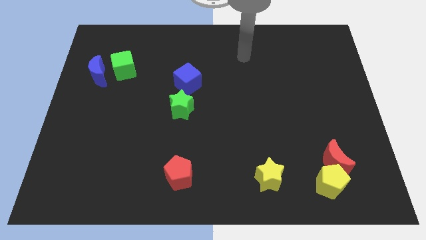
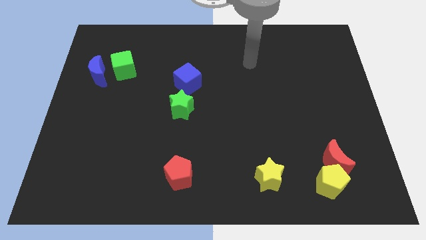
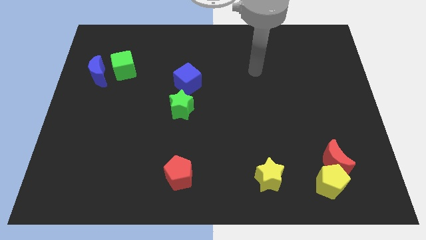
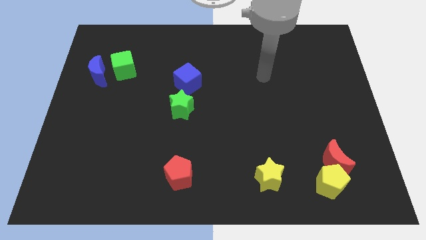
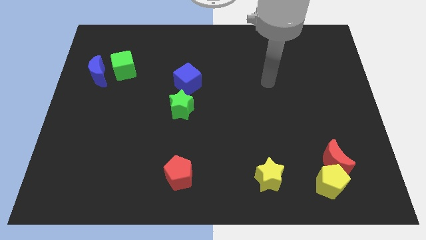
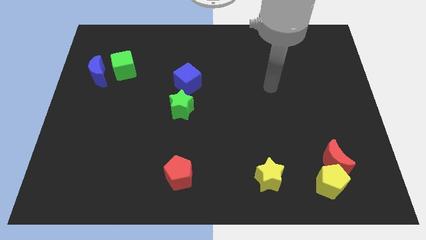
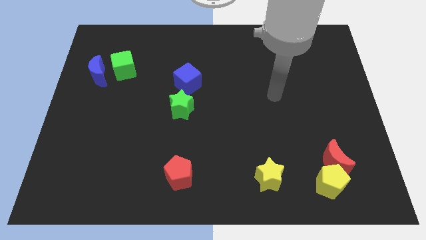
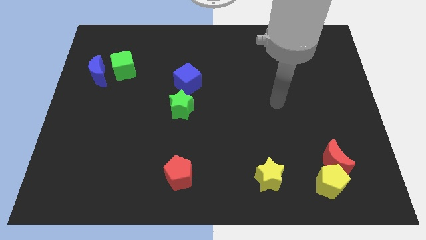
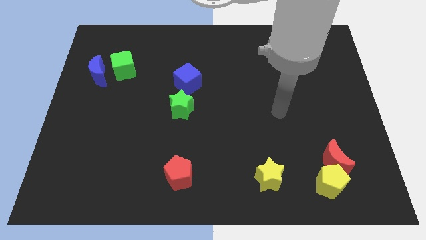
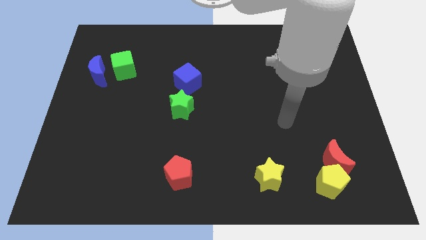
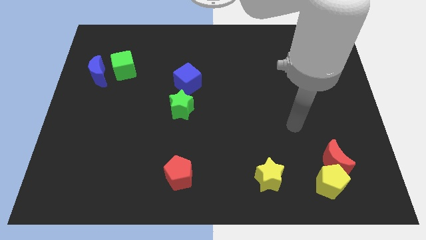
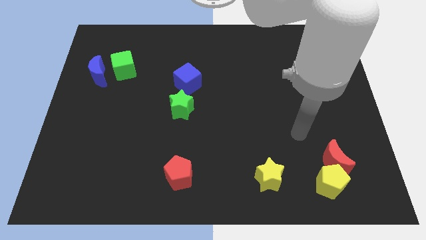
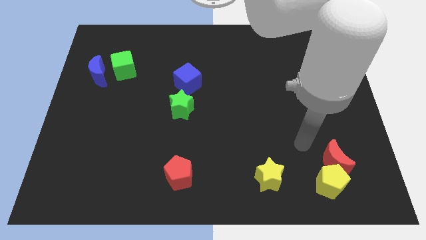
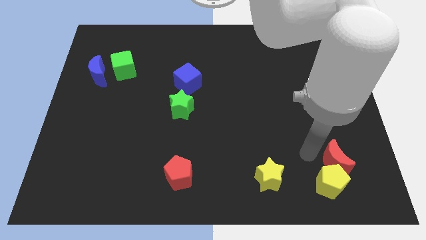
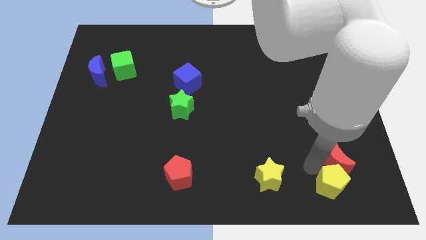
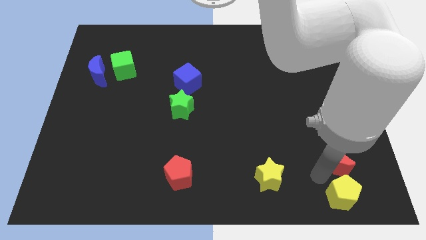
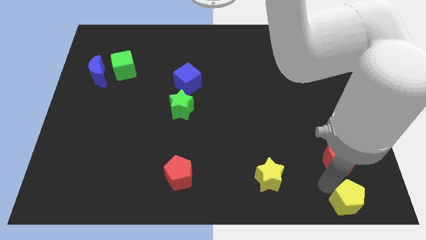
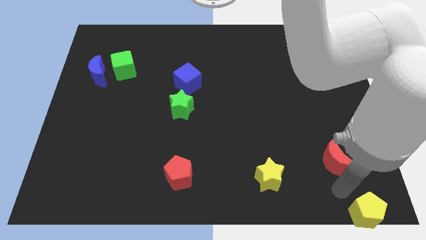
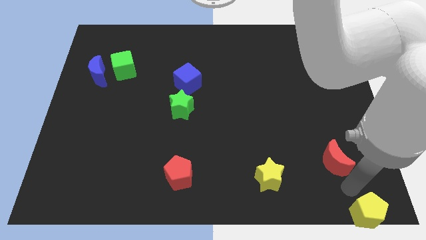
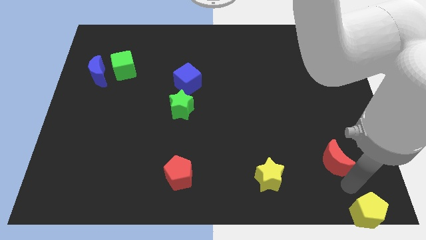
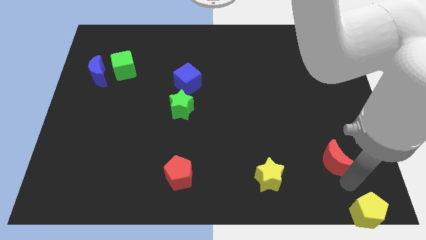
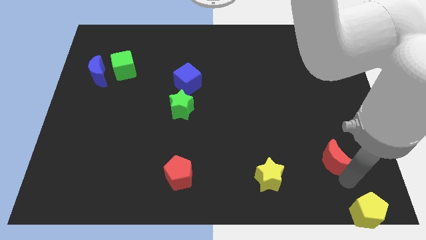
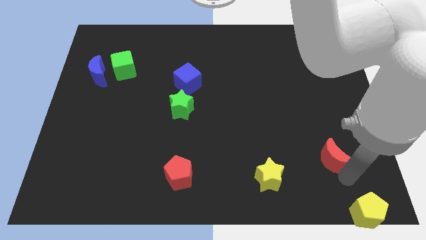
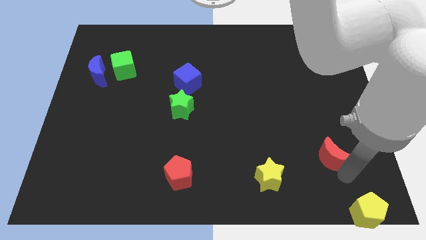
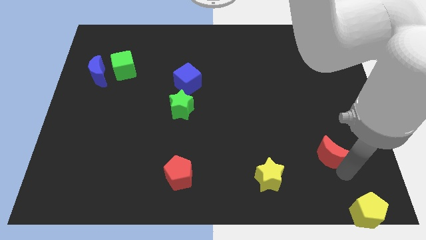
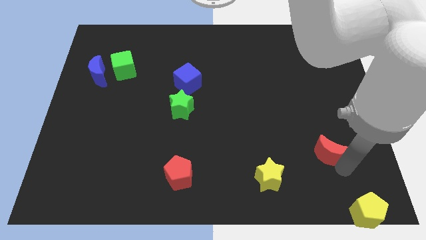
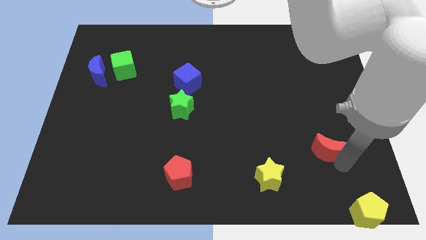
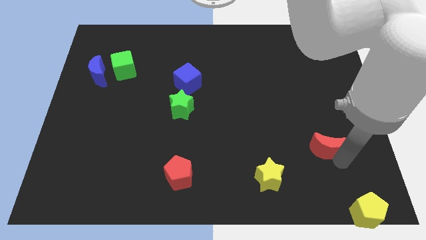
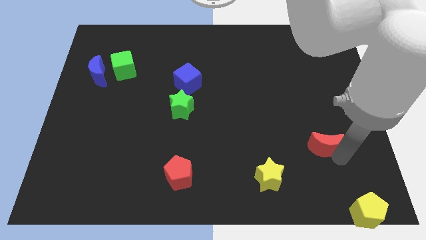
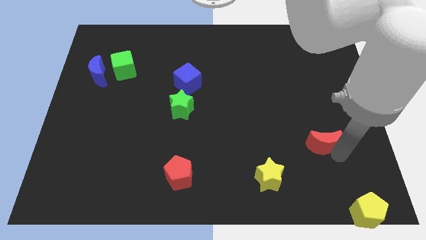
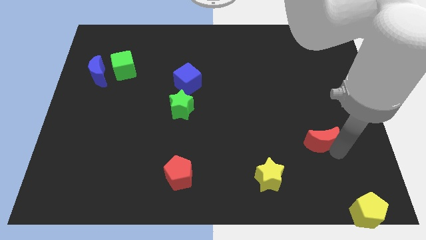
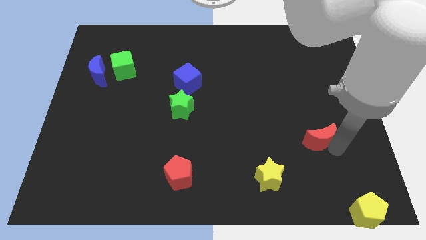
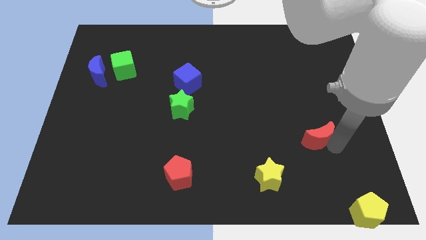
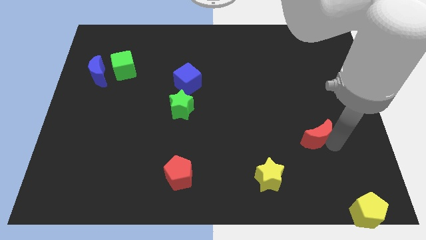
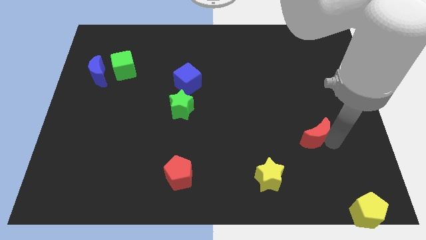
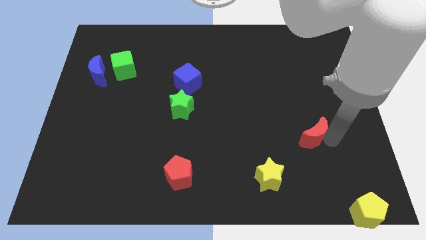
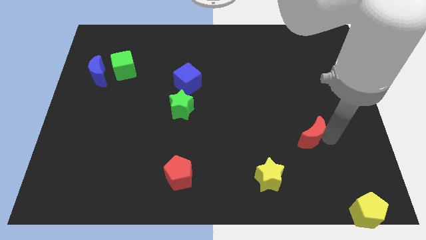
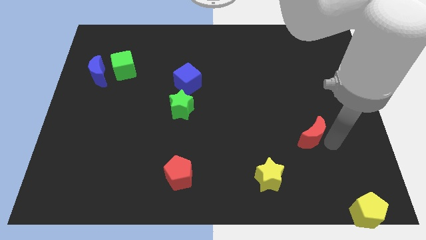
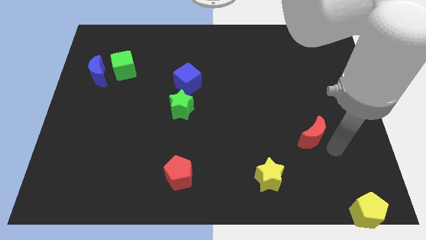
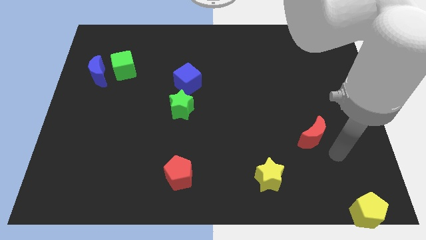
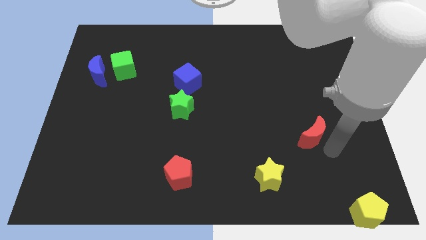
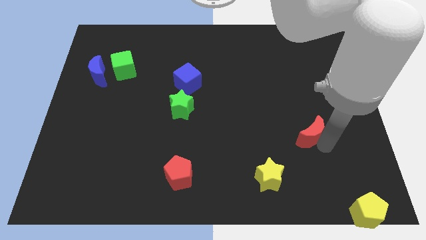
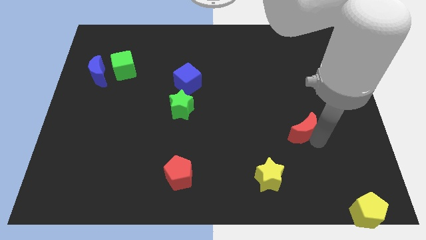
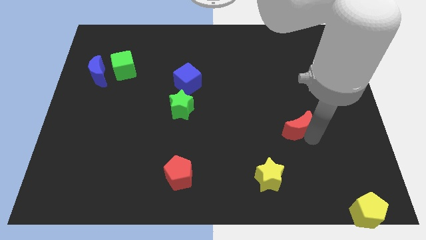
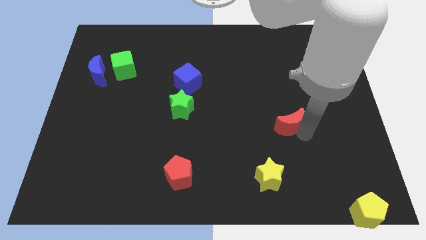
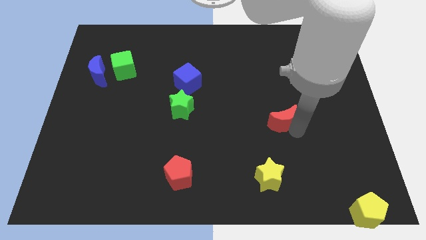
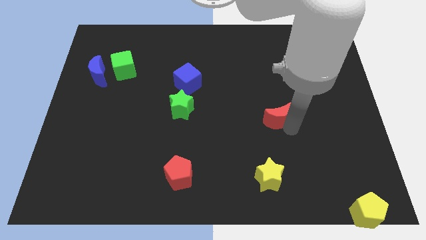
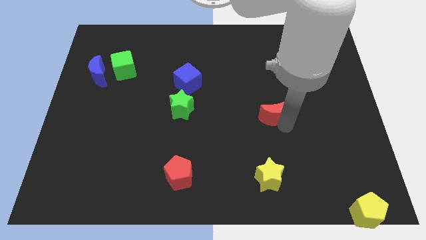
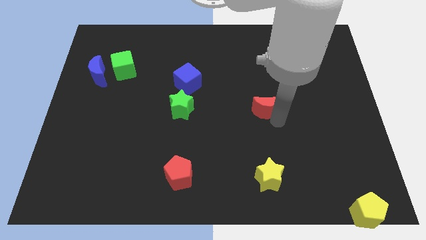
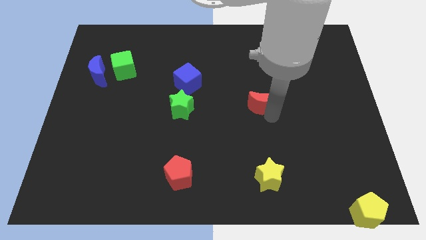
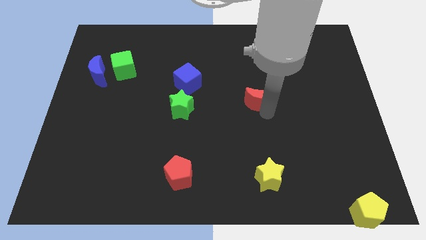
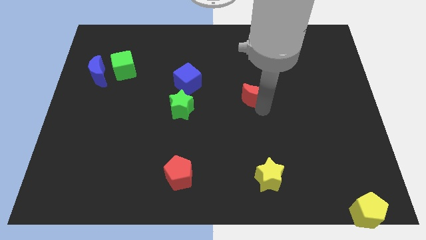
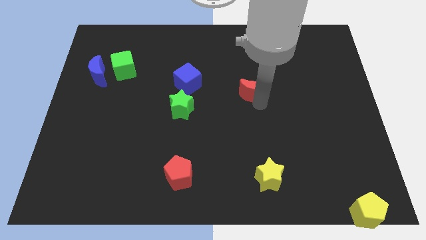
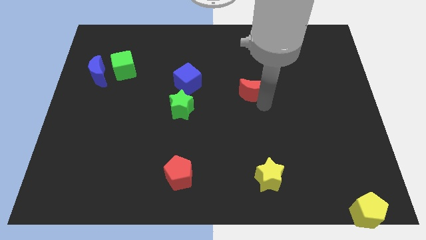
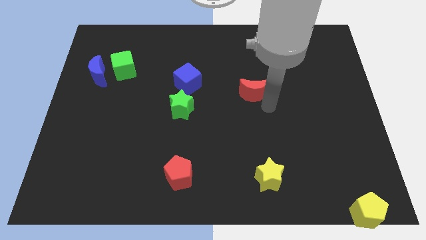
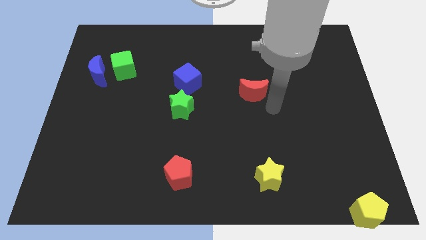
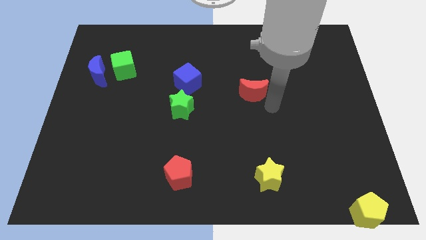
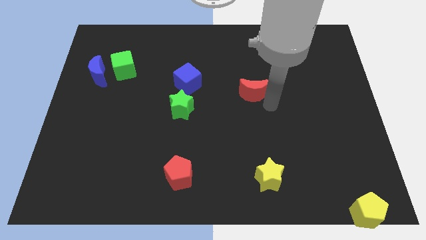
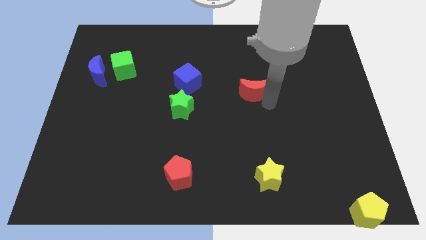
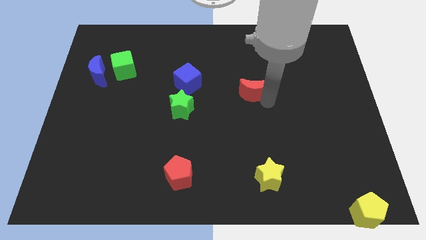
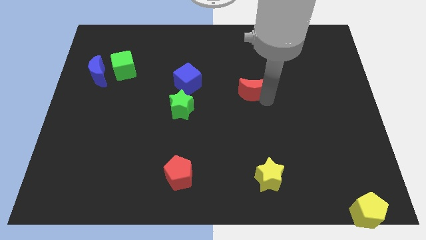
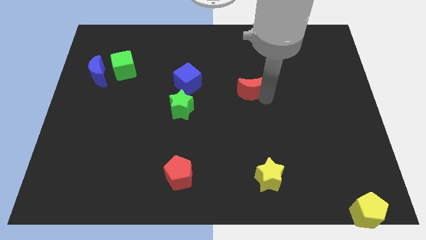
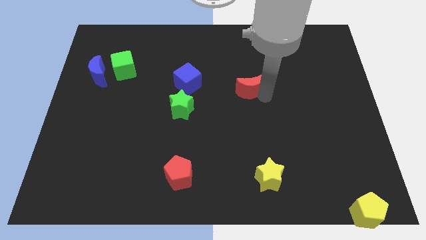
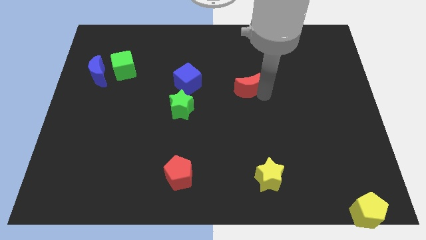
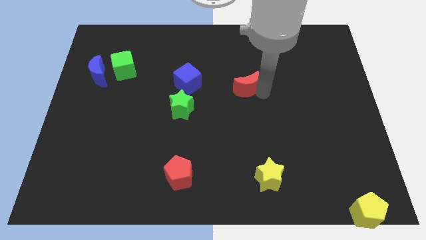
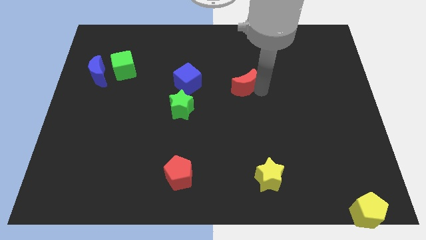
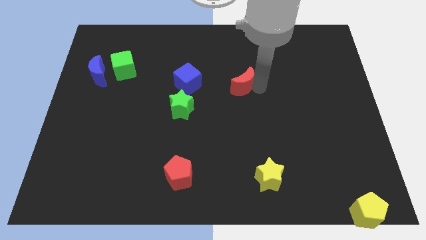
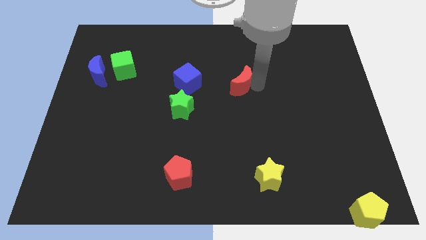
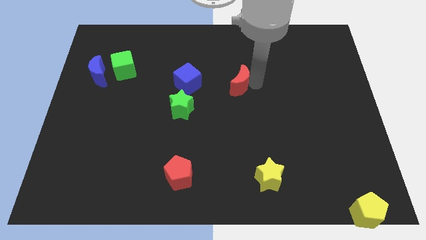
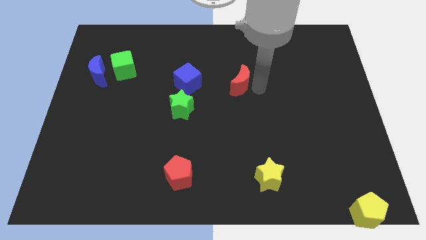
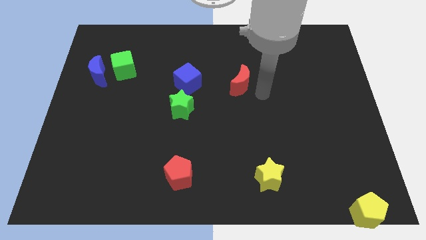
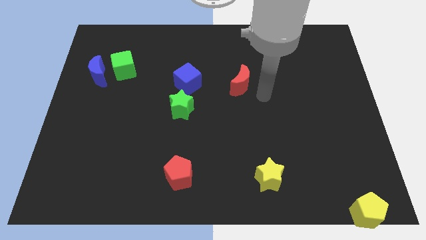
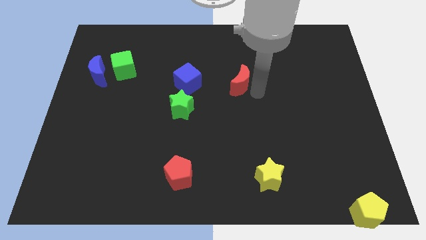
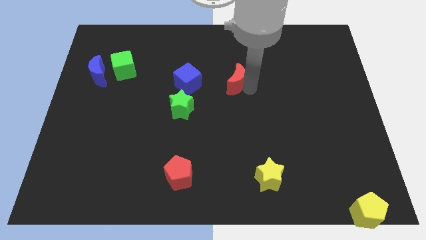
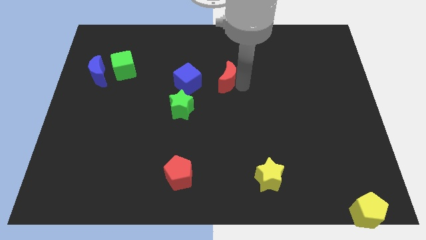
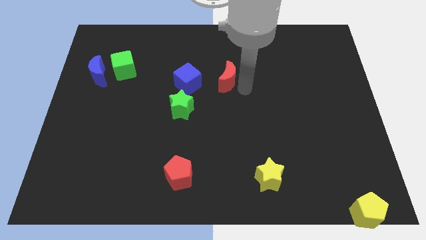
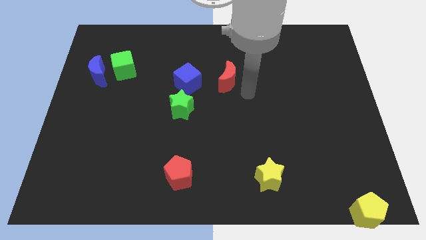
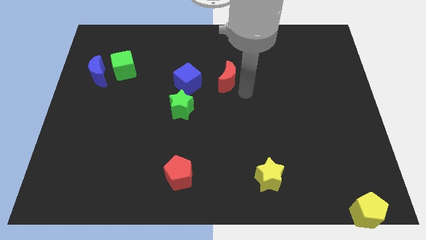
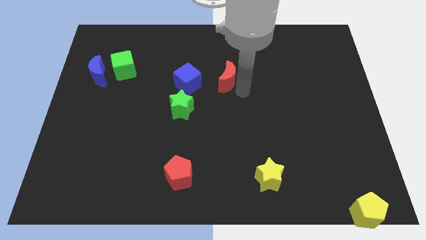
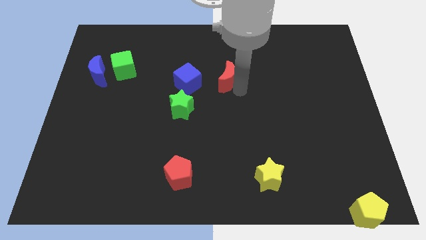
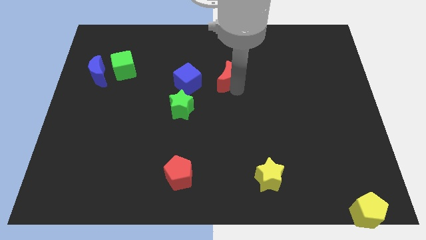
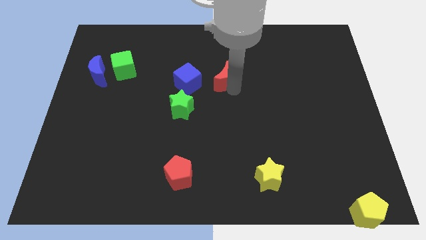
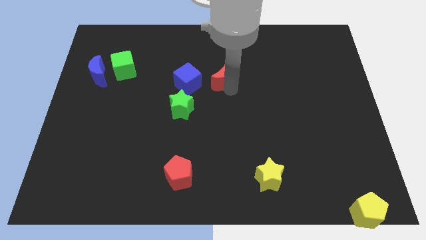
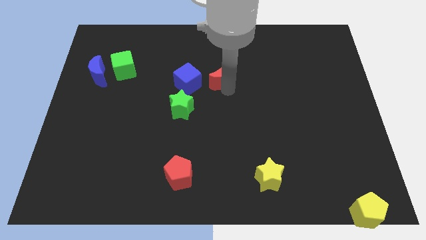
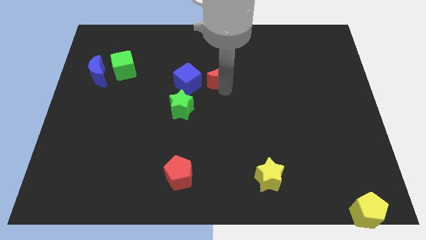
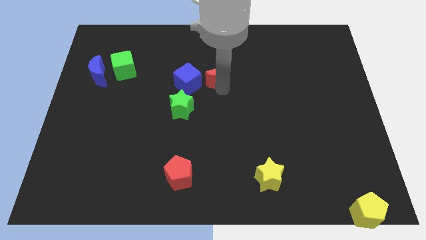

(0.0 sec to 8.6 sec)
slide the red moon diagonally up and to the right of the blue cube
